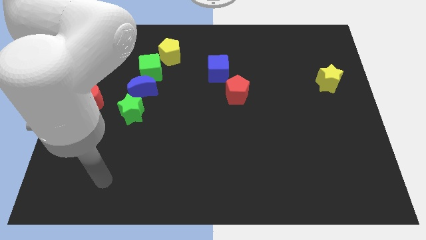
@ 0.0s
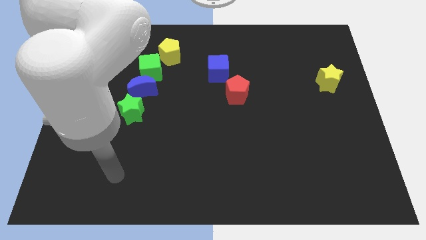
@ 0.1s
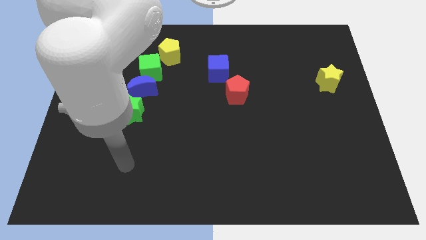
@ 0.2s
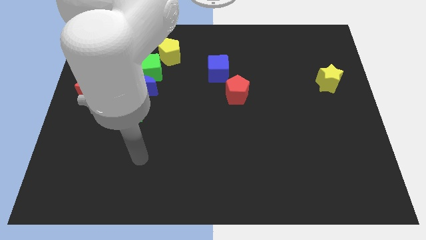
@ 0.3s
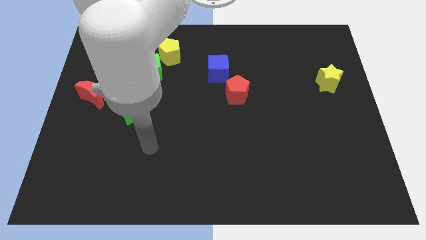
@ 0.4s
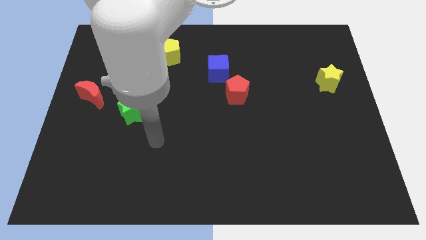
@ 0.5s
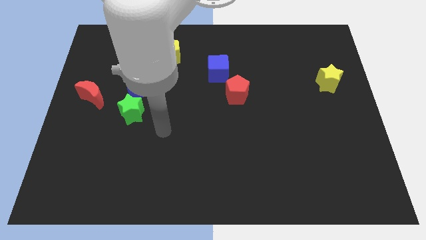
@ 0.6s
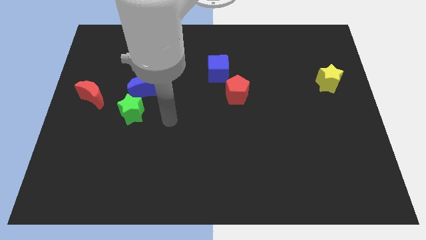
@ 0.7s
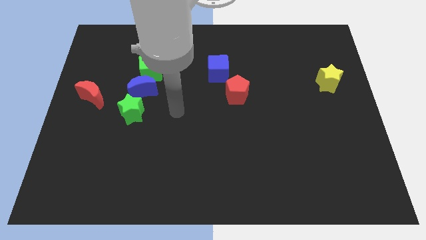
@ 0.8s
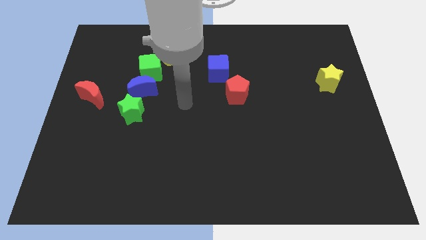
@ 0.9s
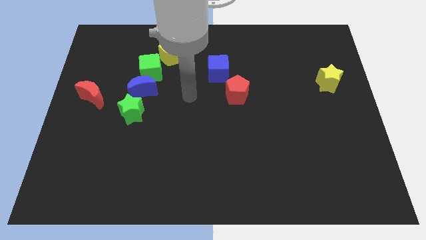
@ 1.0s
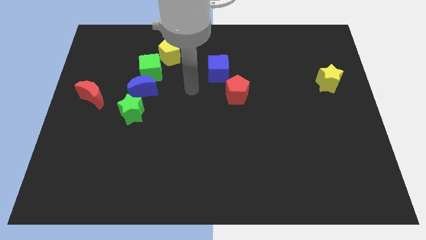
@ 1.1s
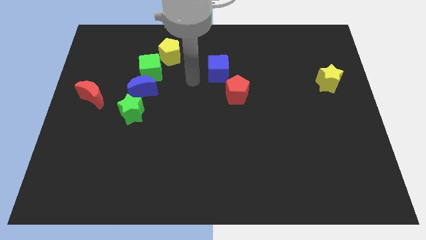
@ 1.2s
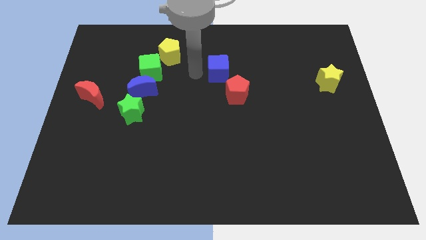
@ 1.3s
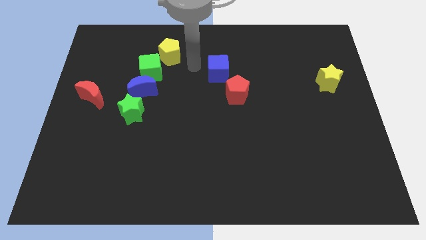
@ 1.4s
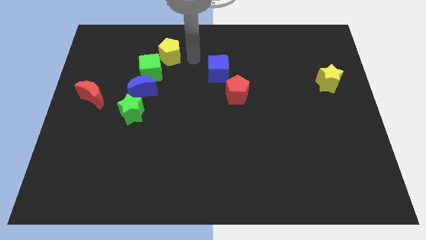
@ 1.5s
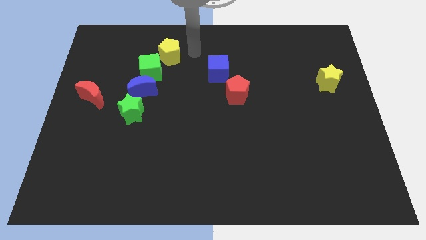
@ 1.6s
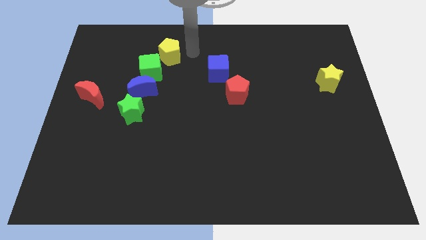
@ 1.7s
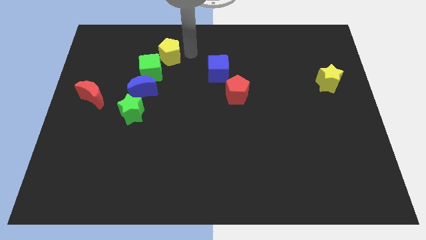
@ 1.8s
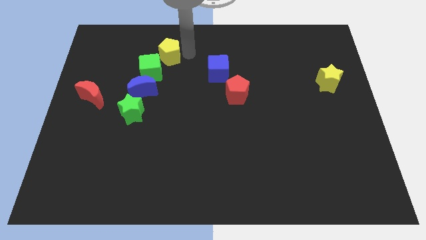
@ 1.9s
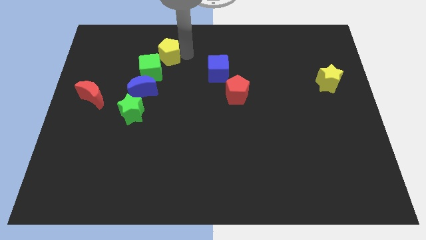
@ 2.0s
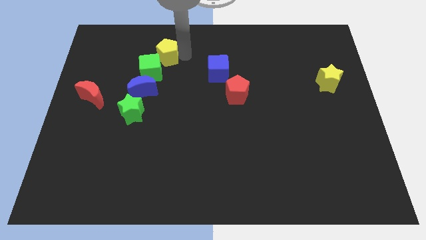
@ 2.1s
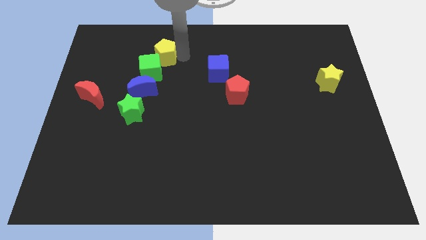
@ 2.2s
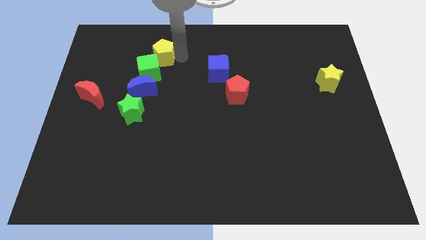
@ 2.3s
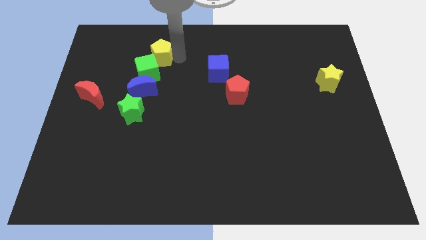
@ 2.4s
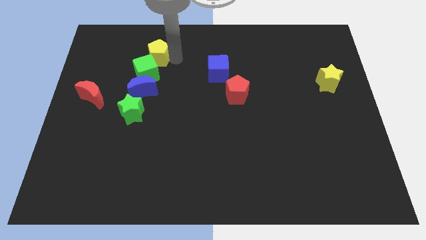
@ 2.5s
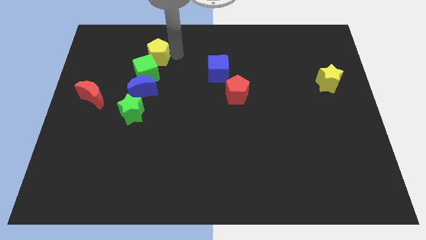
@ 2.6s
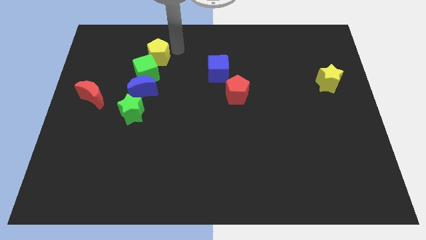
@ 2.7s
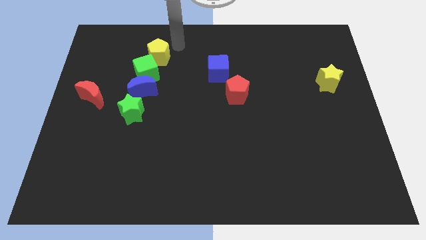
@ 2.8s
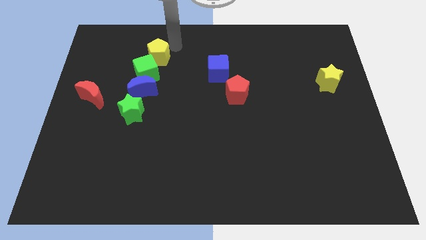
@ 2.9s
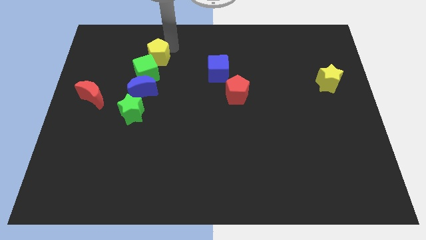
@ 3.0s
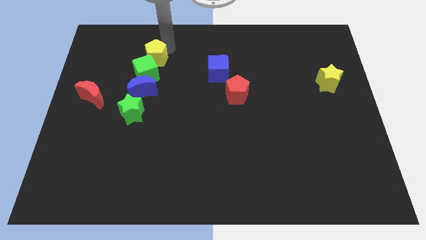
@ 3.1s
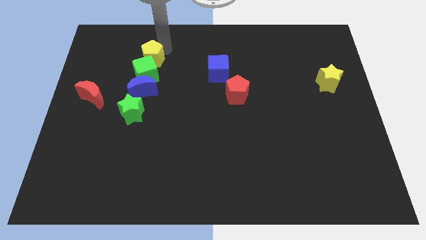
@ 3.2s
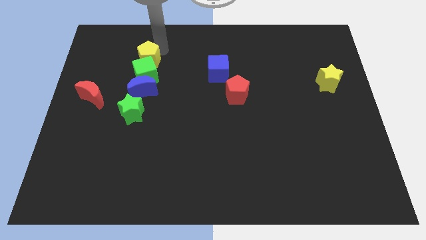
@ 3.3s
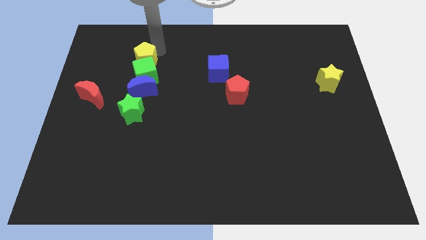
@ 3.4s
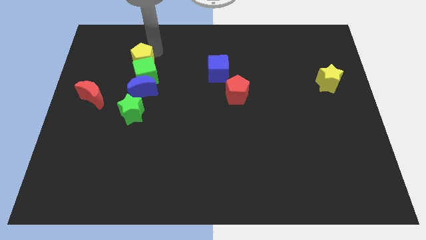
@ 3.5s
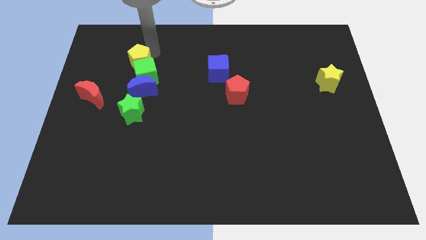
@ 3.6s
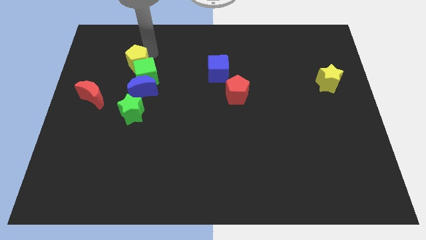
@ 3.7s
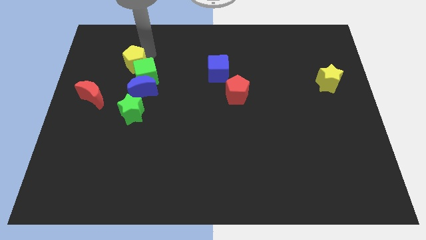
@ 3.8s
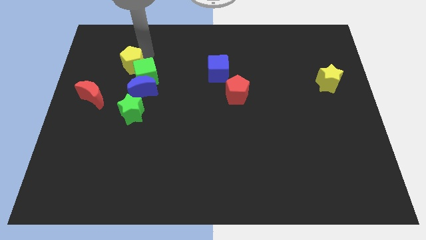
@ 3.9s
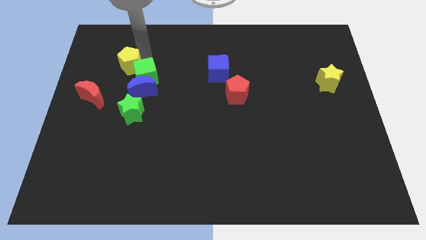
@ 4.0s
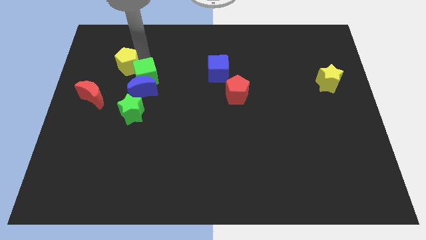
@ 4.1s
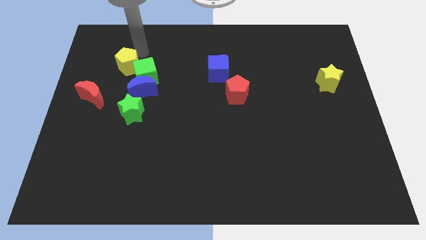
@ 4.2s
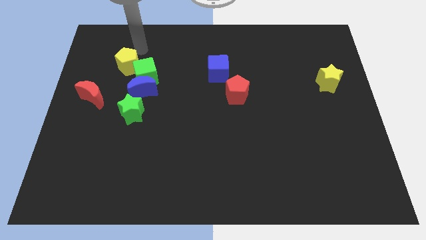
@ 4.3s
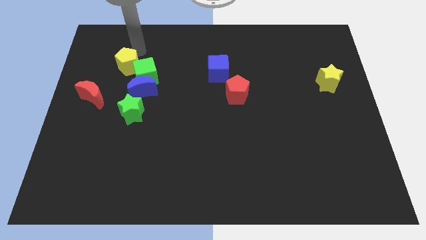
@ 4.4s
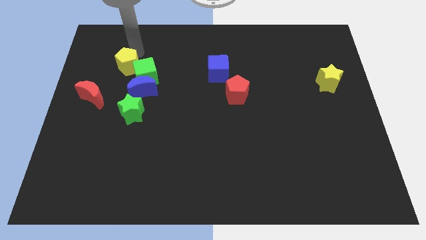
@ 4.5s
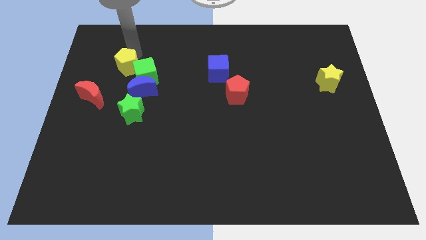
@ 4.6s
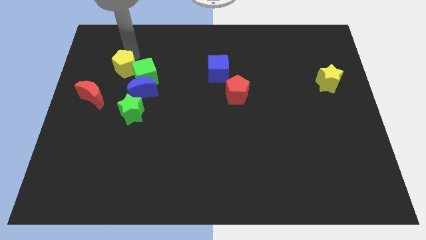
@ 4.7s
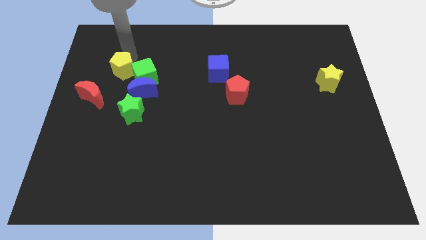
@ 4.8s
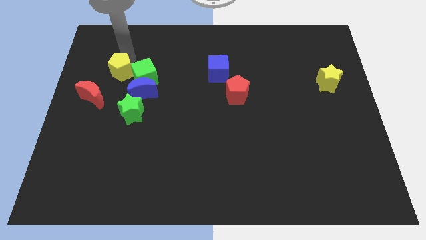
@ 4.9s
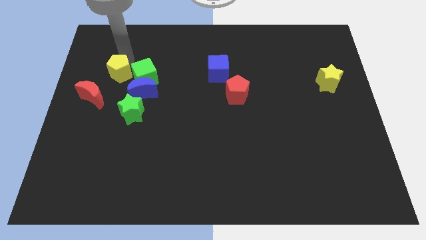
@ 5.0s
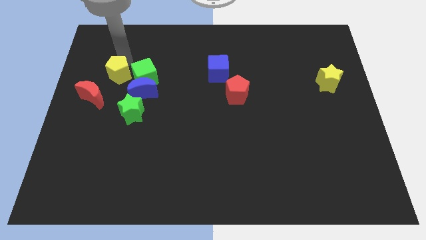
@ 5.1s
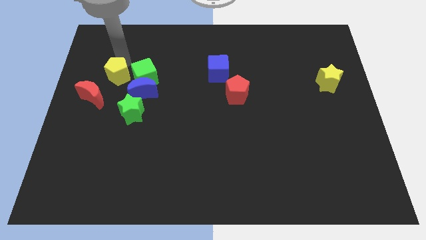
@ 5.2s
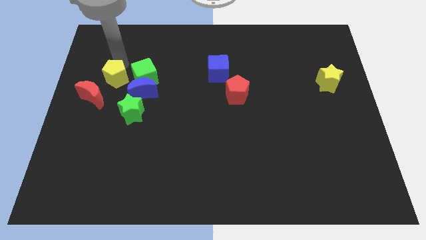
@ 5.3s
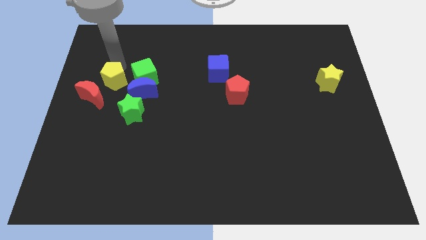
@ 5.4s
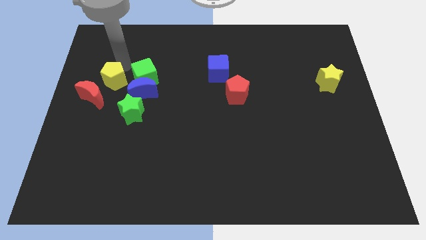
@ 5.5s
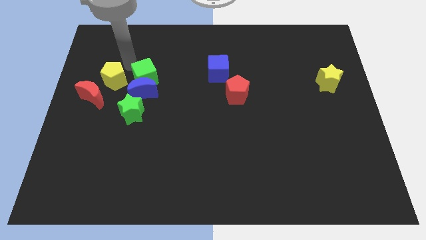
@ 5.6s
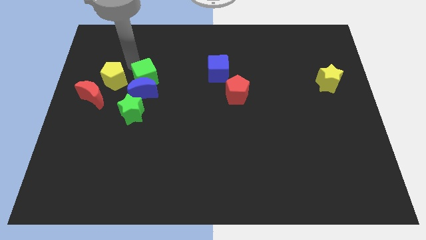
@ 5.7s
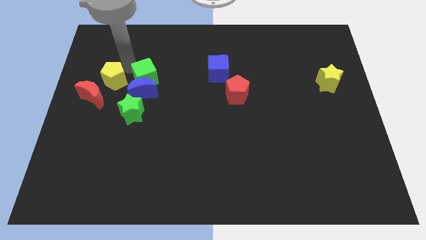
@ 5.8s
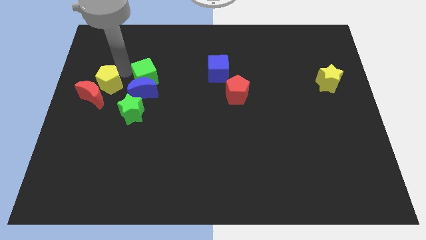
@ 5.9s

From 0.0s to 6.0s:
put the yellow pentagon to the red moon

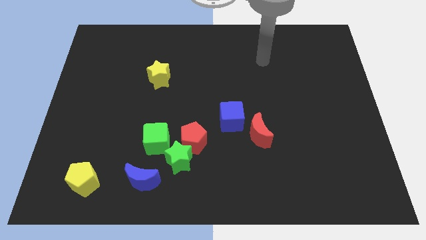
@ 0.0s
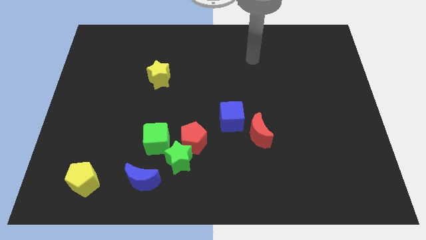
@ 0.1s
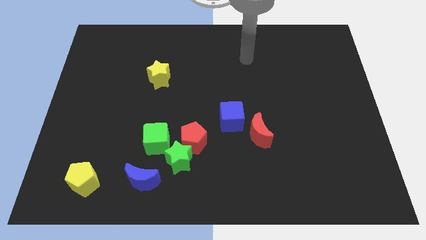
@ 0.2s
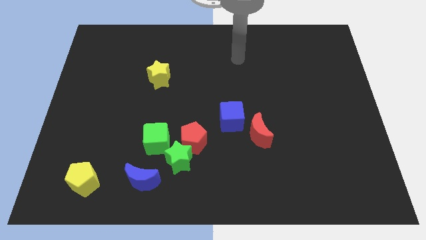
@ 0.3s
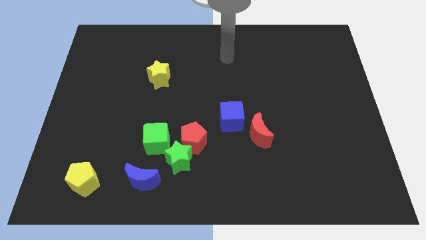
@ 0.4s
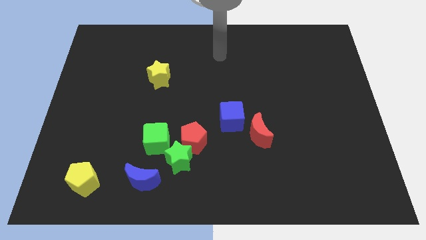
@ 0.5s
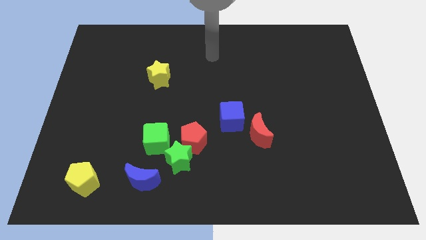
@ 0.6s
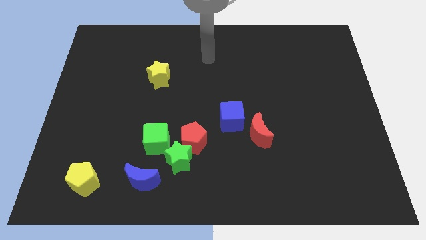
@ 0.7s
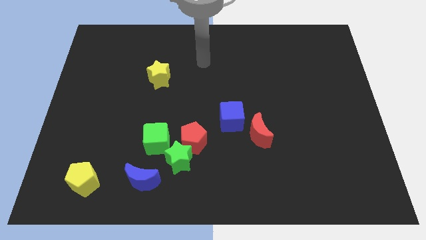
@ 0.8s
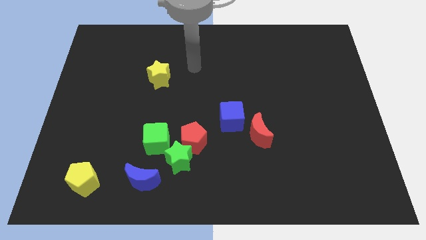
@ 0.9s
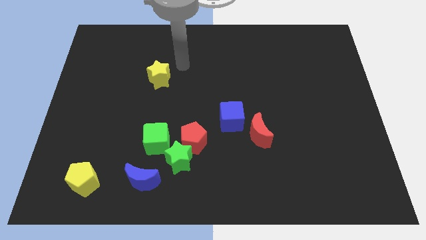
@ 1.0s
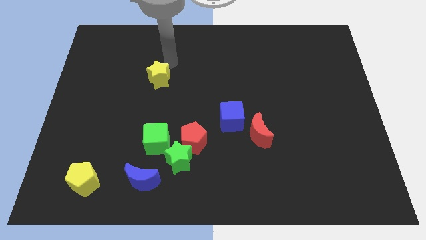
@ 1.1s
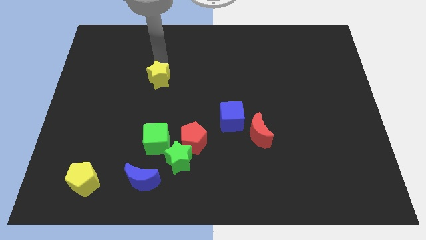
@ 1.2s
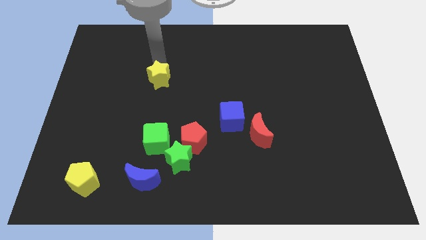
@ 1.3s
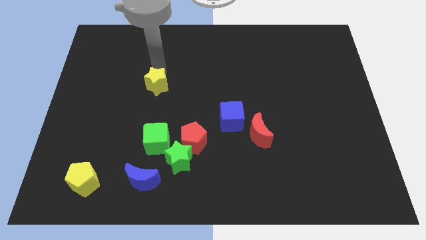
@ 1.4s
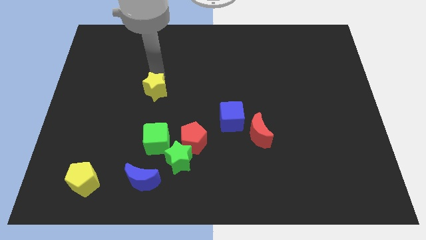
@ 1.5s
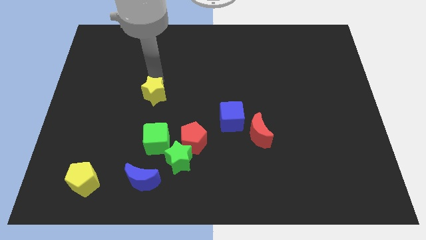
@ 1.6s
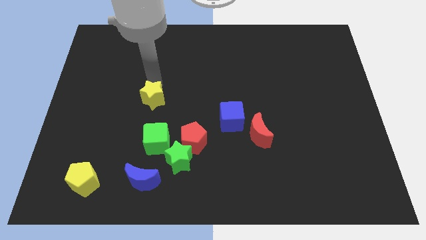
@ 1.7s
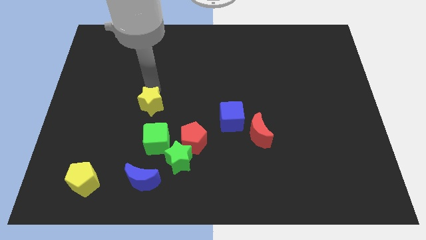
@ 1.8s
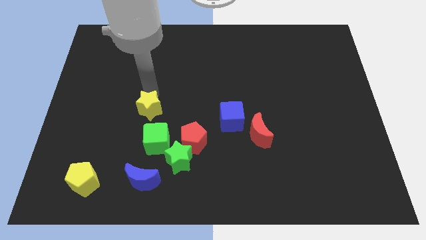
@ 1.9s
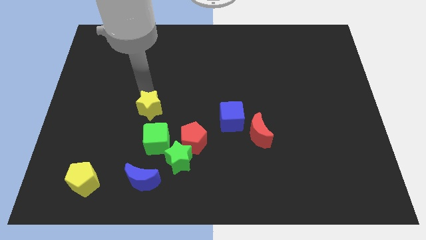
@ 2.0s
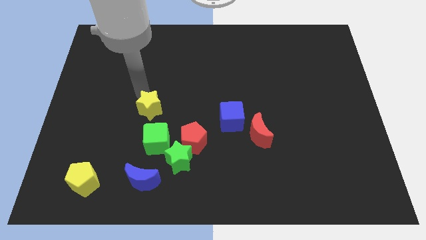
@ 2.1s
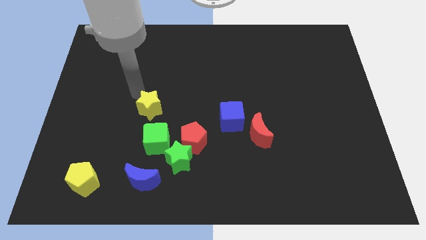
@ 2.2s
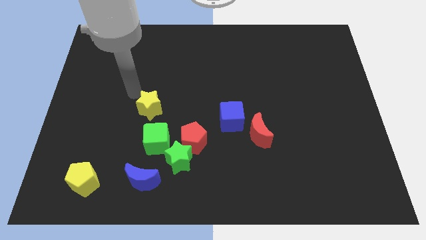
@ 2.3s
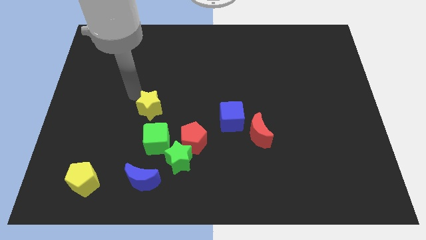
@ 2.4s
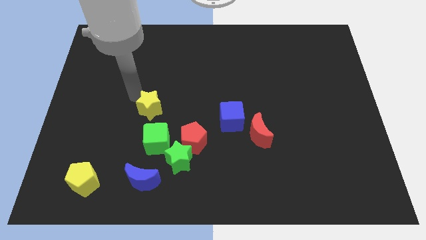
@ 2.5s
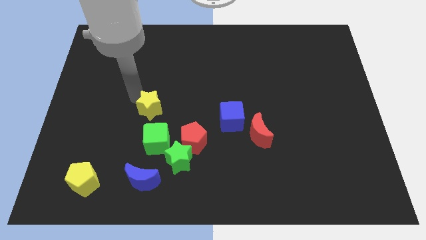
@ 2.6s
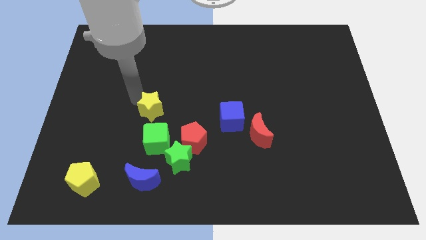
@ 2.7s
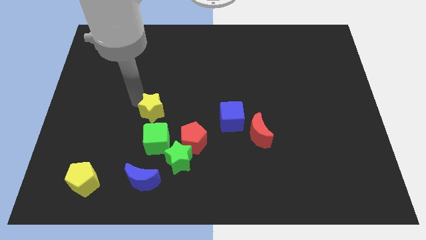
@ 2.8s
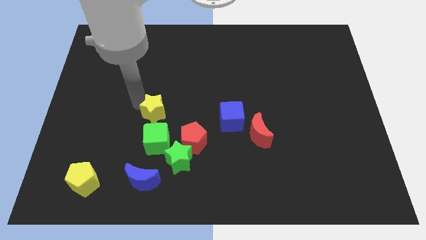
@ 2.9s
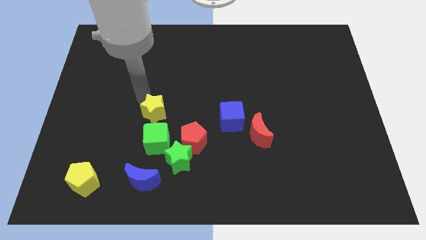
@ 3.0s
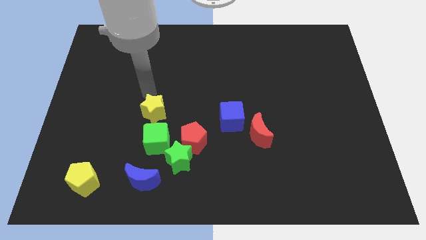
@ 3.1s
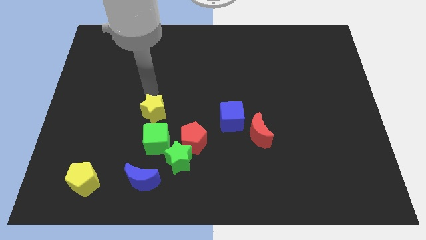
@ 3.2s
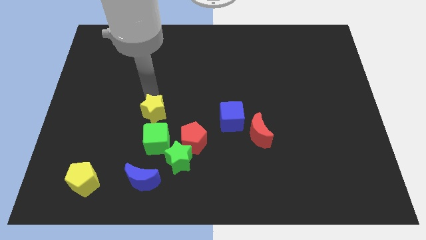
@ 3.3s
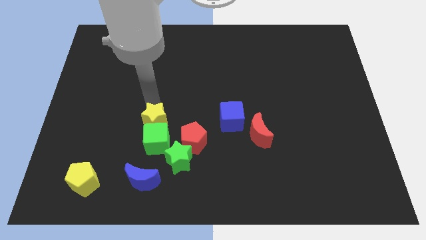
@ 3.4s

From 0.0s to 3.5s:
slide the yellow star to the green cube
